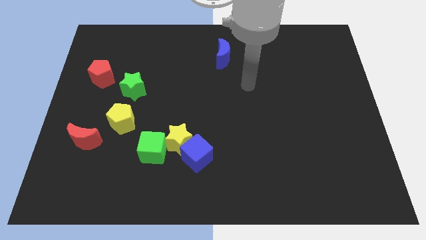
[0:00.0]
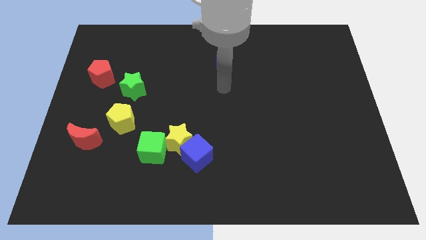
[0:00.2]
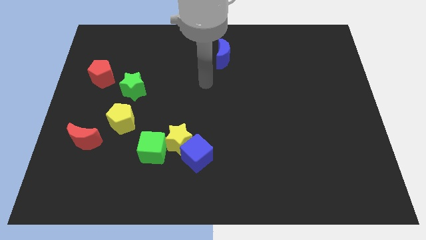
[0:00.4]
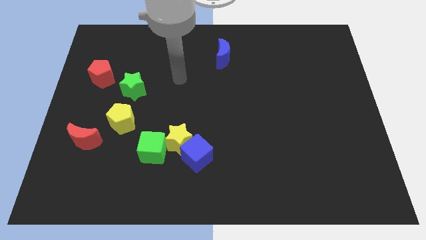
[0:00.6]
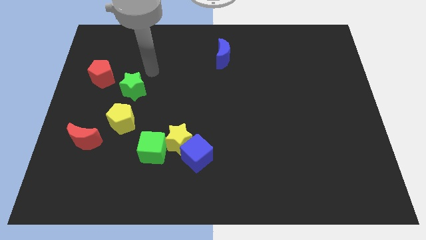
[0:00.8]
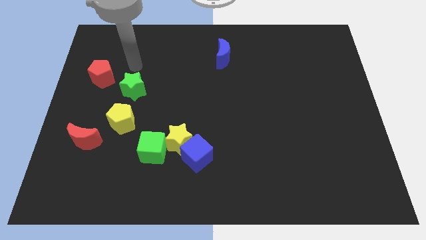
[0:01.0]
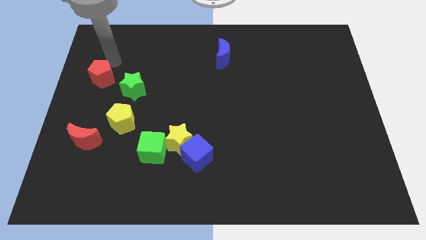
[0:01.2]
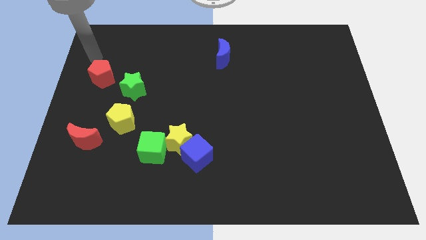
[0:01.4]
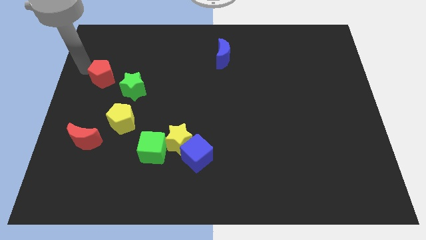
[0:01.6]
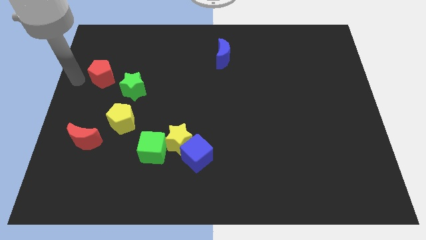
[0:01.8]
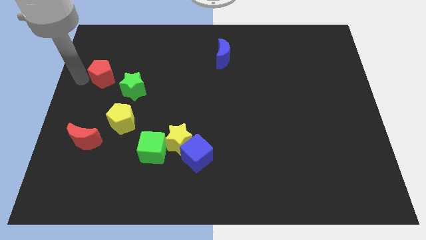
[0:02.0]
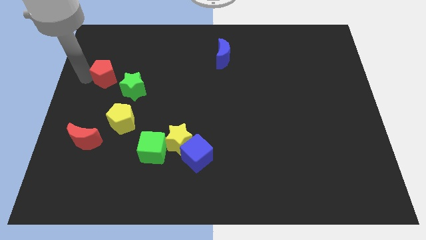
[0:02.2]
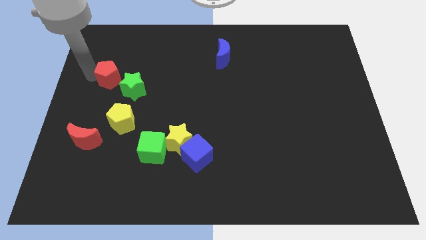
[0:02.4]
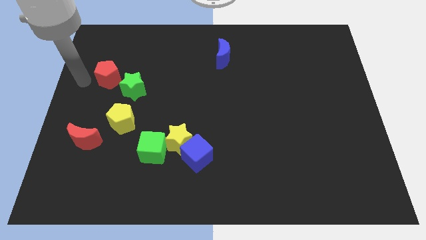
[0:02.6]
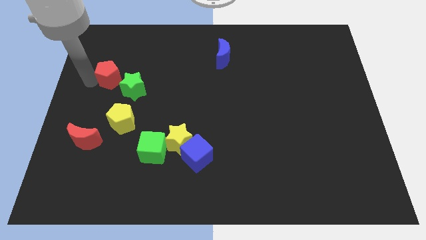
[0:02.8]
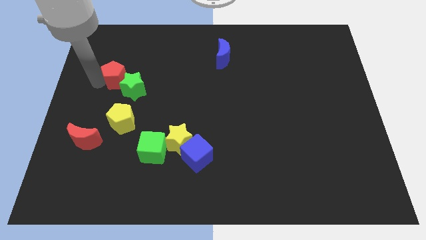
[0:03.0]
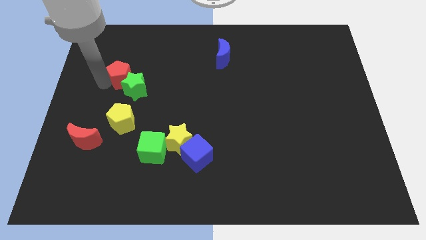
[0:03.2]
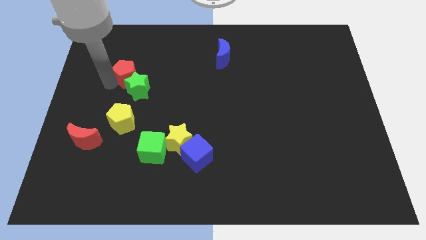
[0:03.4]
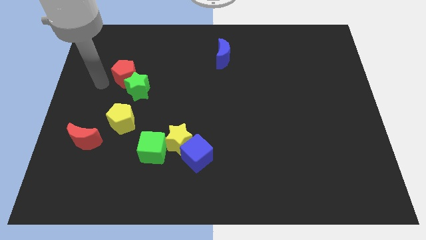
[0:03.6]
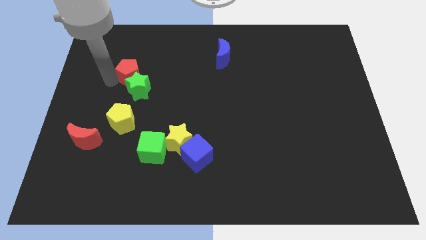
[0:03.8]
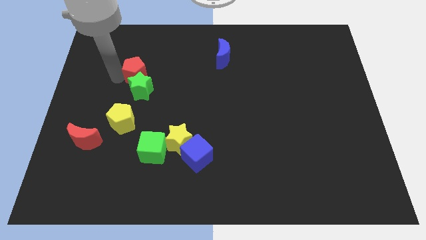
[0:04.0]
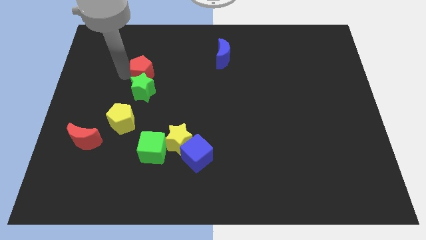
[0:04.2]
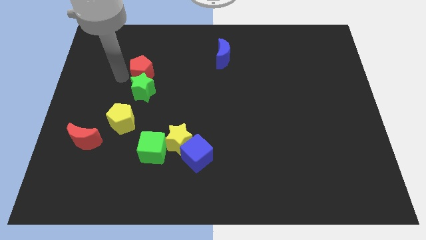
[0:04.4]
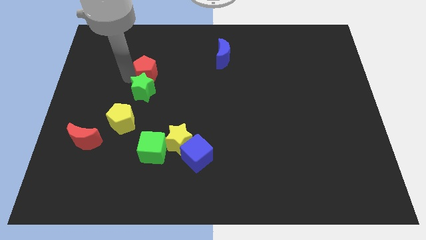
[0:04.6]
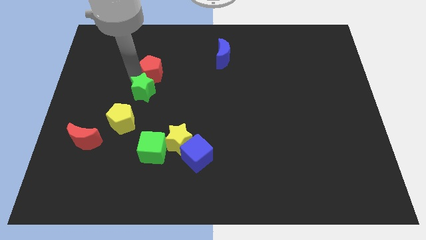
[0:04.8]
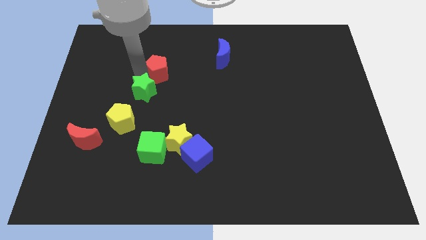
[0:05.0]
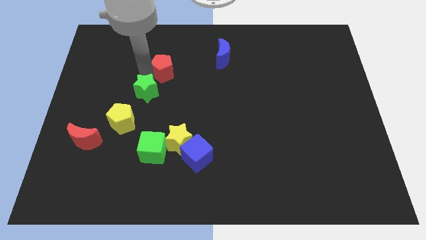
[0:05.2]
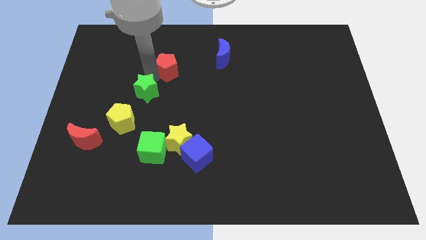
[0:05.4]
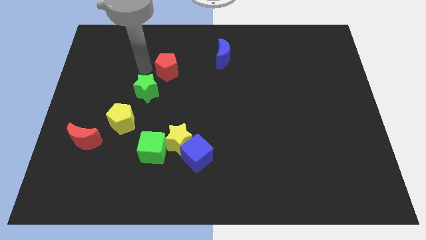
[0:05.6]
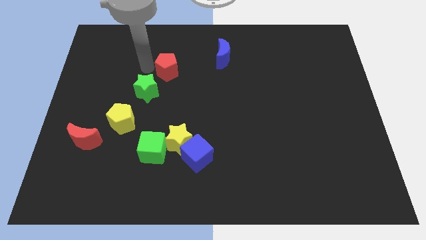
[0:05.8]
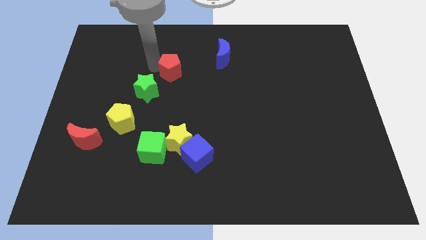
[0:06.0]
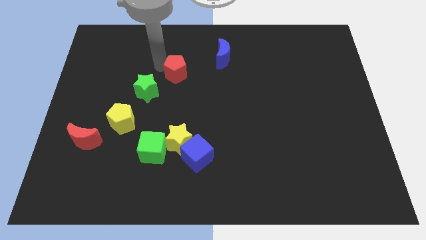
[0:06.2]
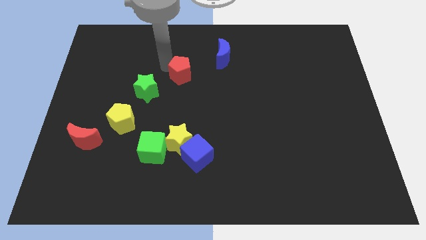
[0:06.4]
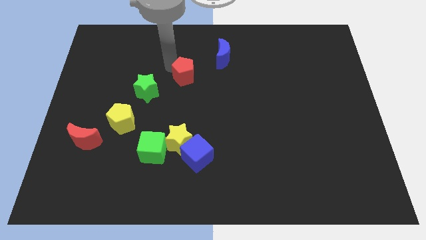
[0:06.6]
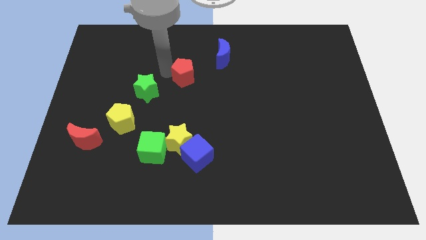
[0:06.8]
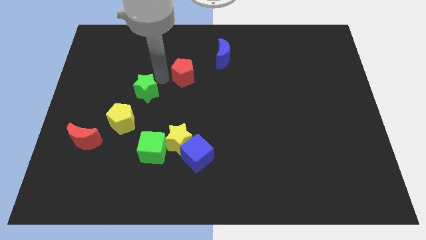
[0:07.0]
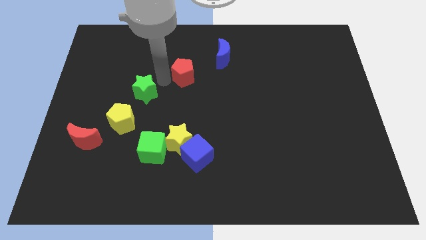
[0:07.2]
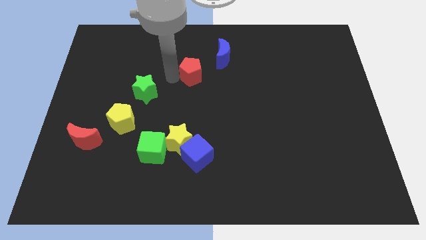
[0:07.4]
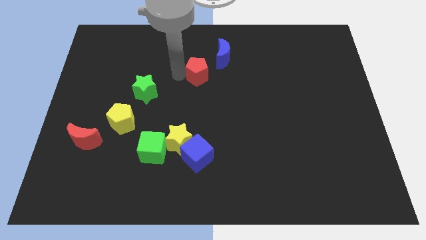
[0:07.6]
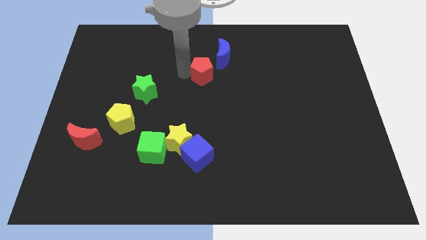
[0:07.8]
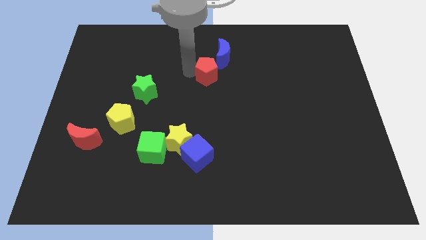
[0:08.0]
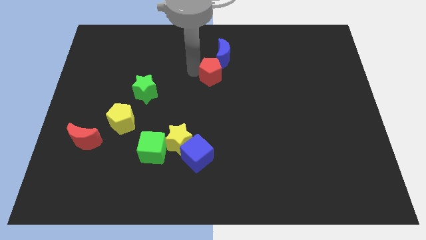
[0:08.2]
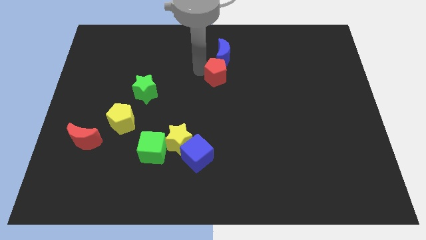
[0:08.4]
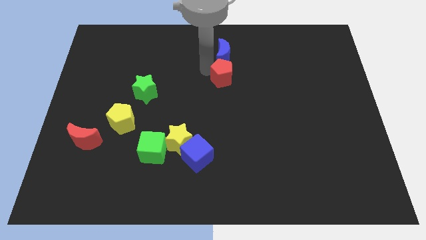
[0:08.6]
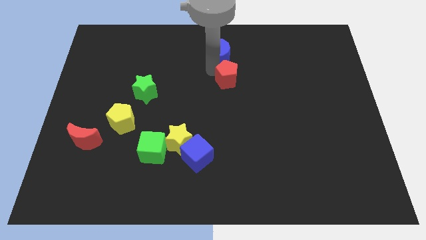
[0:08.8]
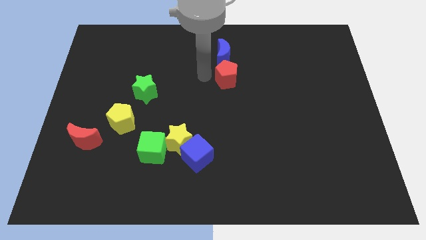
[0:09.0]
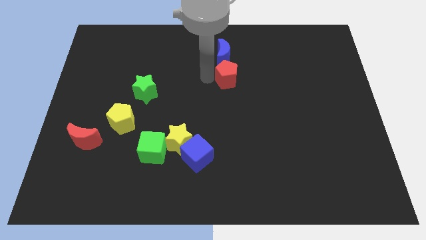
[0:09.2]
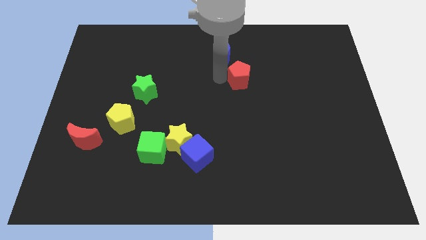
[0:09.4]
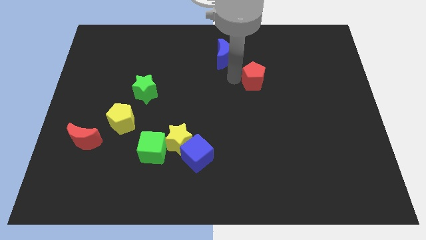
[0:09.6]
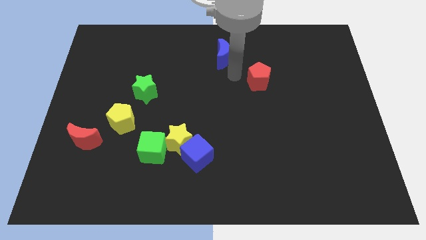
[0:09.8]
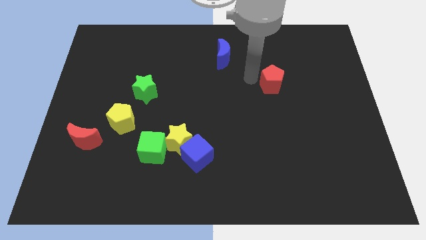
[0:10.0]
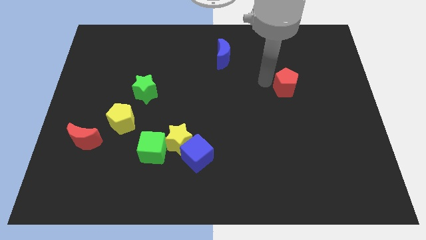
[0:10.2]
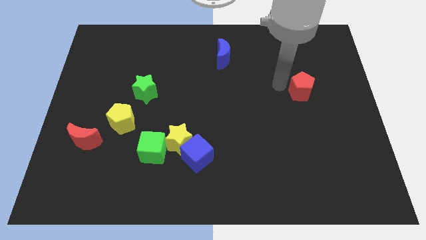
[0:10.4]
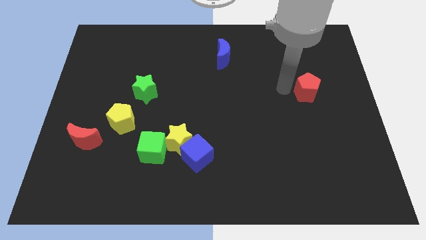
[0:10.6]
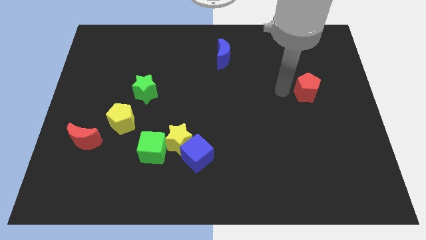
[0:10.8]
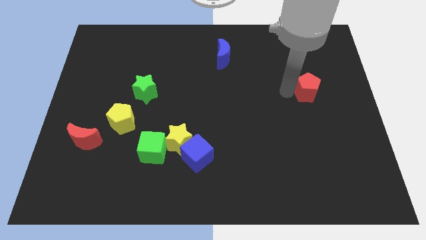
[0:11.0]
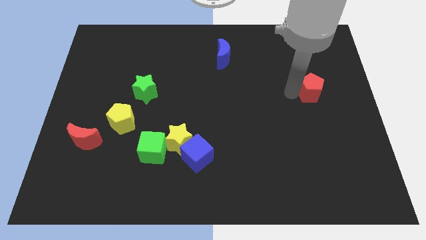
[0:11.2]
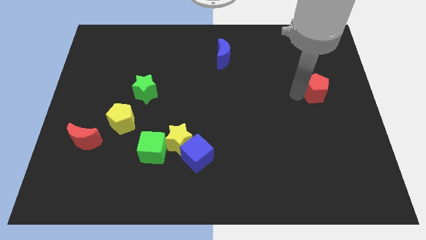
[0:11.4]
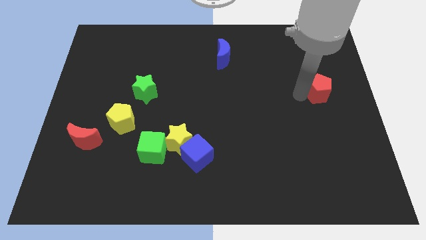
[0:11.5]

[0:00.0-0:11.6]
put the red pentagon to the center right

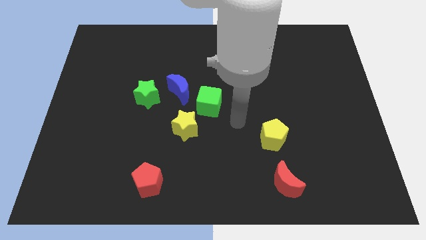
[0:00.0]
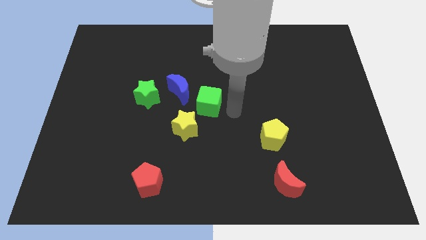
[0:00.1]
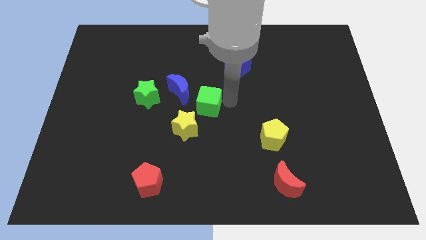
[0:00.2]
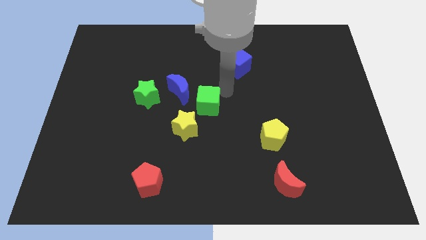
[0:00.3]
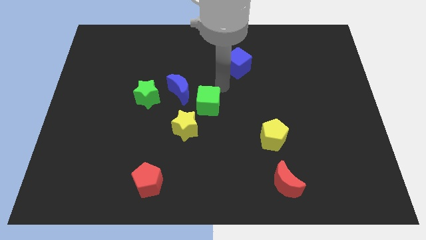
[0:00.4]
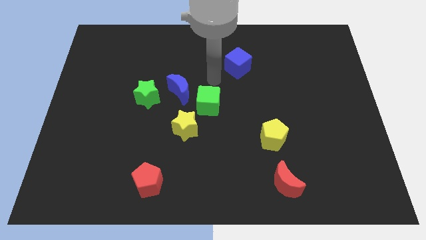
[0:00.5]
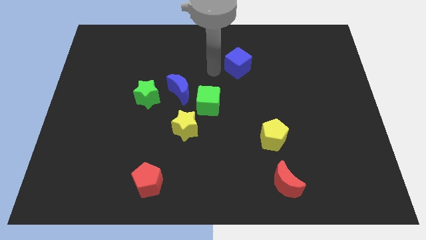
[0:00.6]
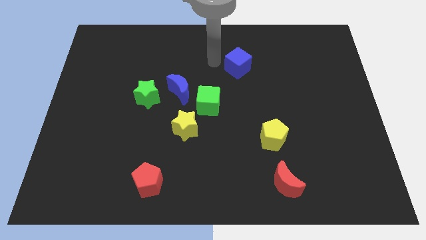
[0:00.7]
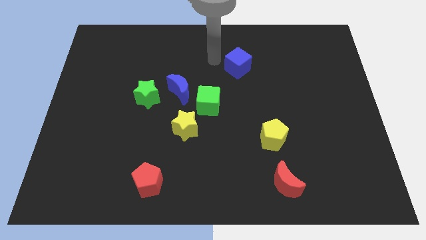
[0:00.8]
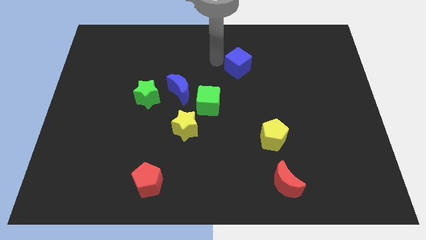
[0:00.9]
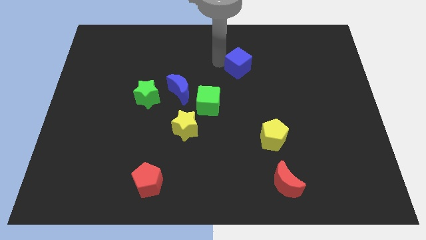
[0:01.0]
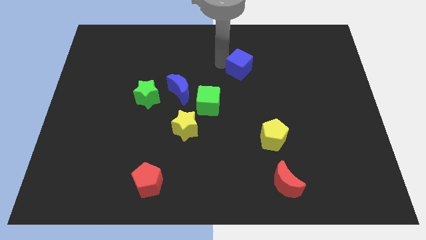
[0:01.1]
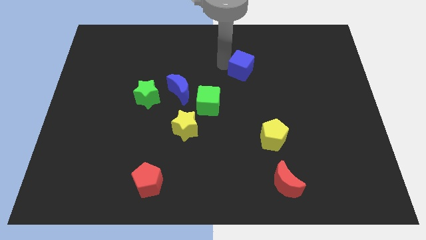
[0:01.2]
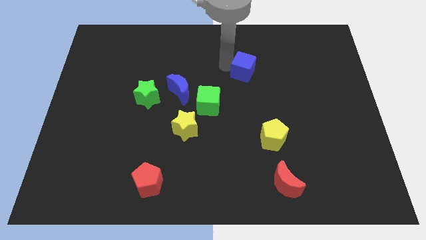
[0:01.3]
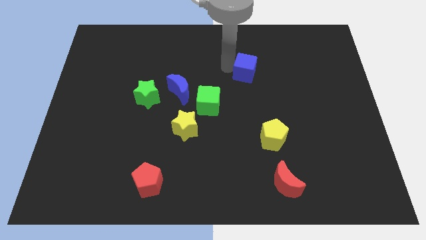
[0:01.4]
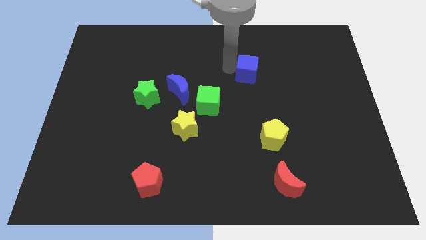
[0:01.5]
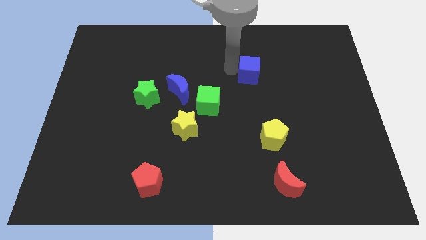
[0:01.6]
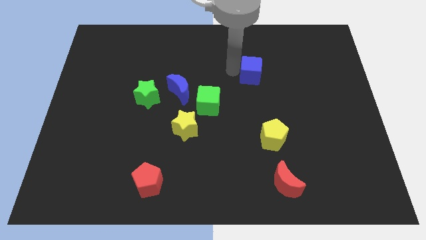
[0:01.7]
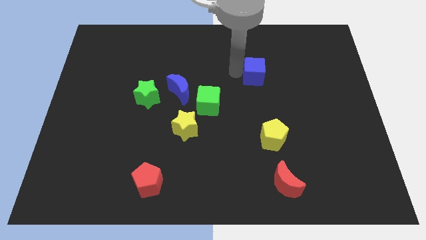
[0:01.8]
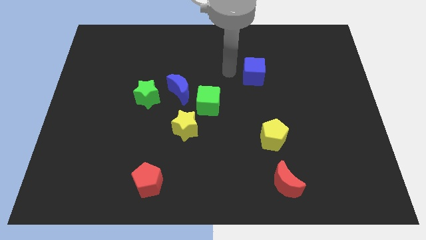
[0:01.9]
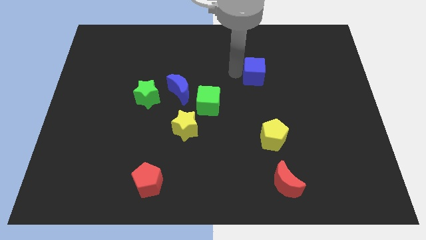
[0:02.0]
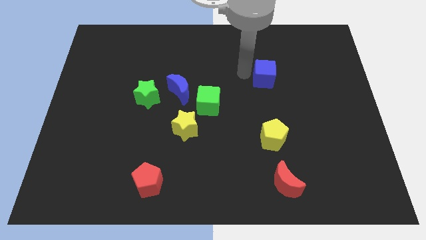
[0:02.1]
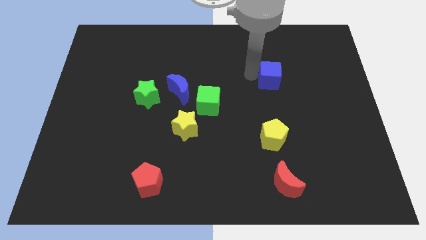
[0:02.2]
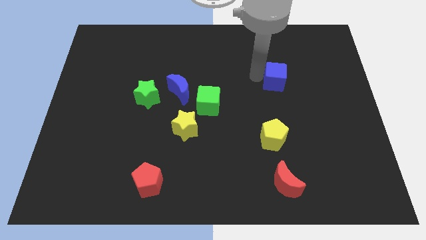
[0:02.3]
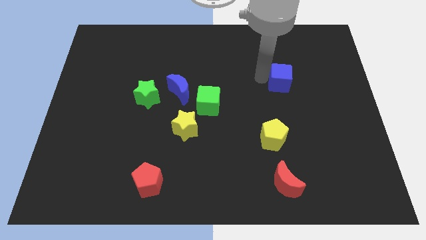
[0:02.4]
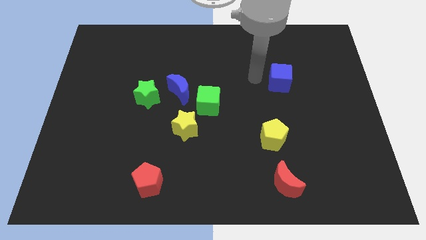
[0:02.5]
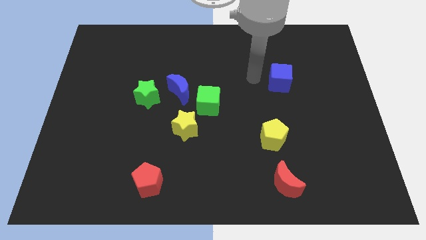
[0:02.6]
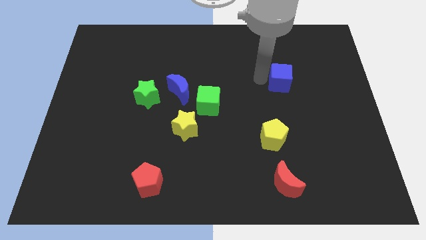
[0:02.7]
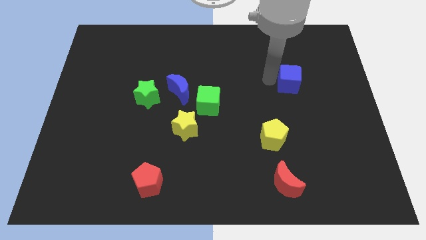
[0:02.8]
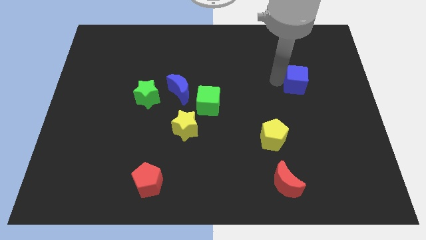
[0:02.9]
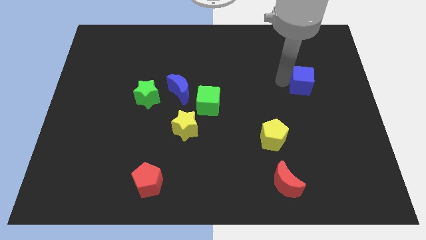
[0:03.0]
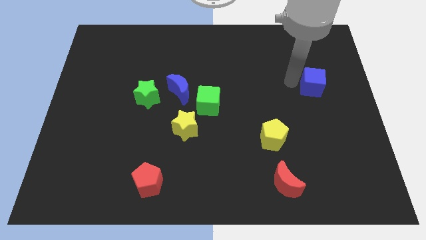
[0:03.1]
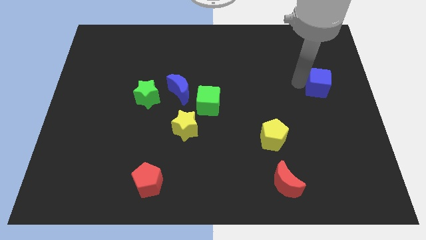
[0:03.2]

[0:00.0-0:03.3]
put the blue cube to the center right
